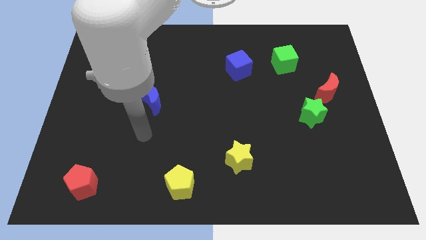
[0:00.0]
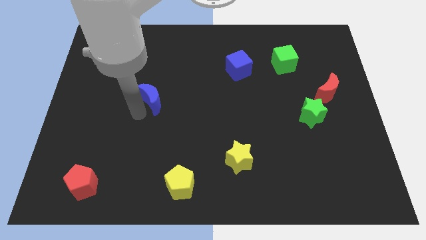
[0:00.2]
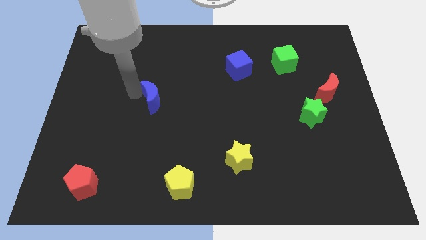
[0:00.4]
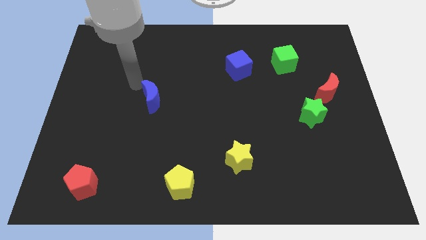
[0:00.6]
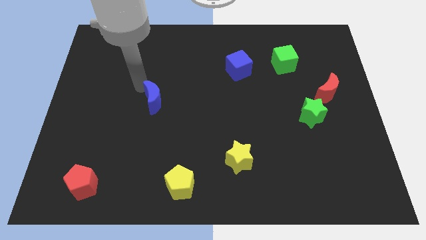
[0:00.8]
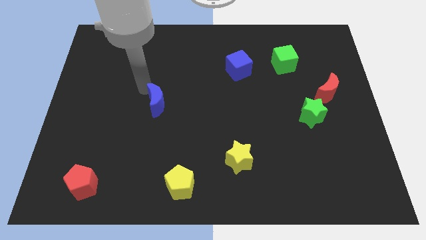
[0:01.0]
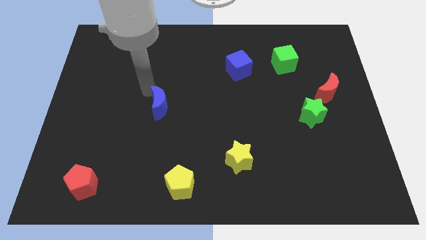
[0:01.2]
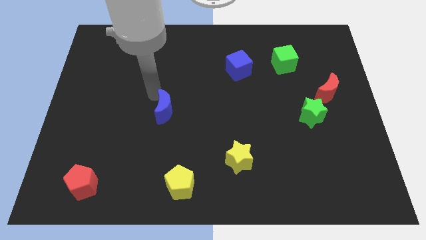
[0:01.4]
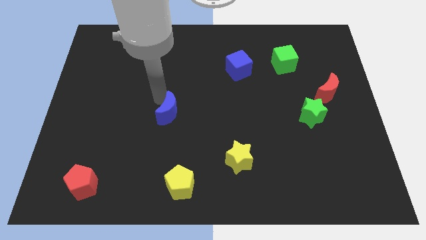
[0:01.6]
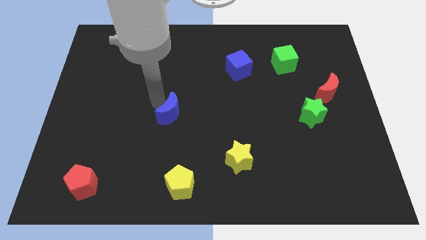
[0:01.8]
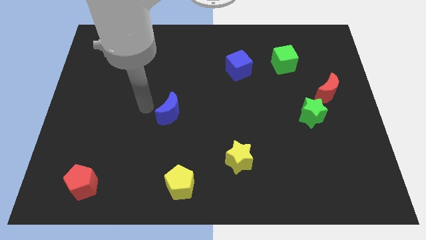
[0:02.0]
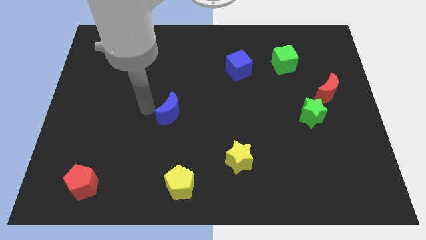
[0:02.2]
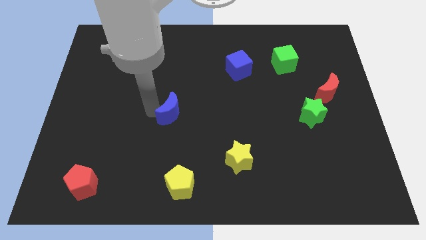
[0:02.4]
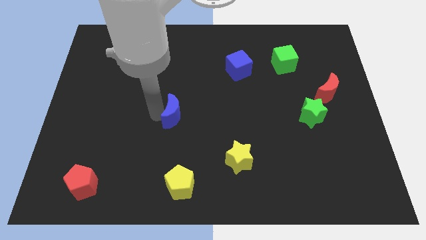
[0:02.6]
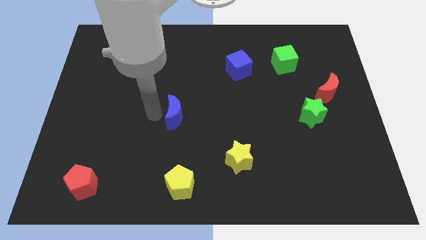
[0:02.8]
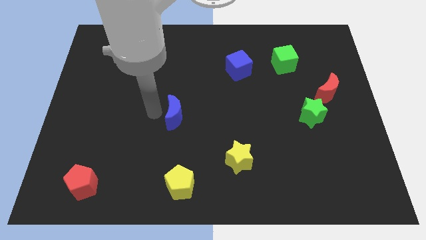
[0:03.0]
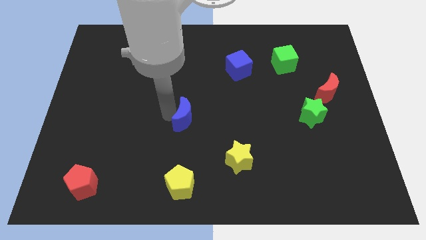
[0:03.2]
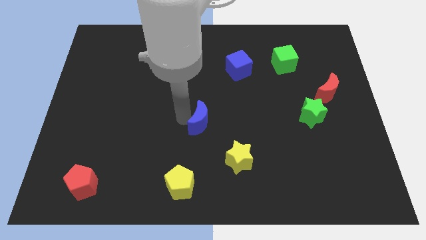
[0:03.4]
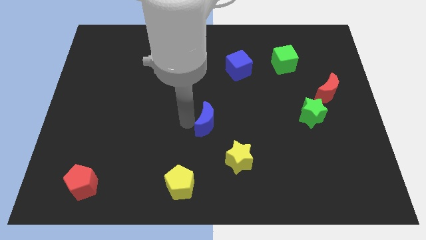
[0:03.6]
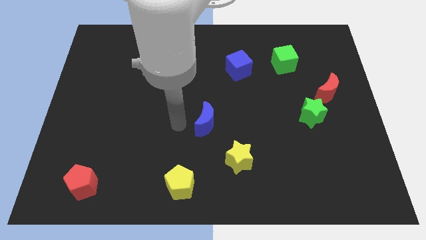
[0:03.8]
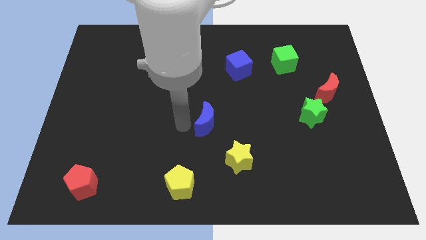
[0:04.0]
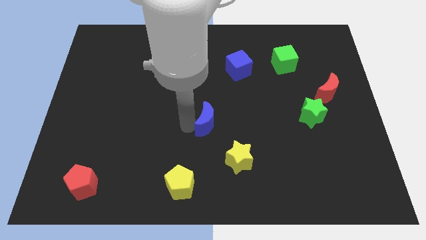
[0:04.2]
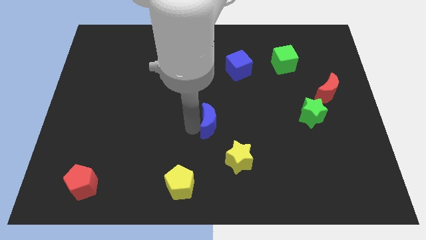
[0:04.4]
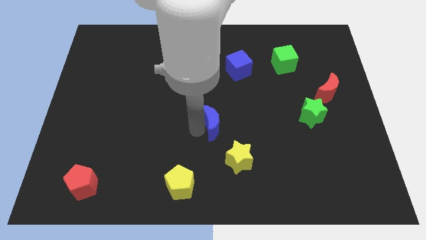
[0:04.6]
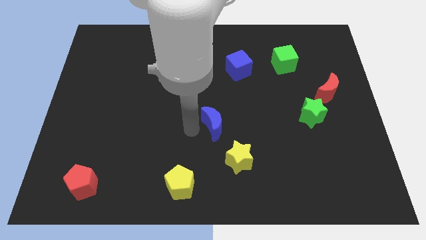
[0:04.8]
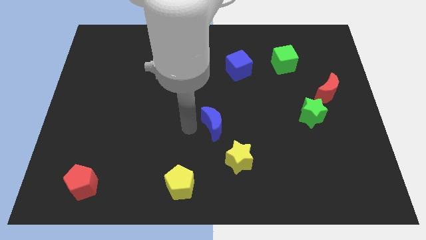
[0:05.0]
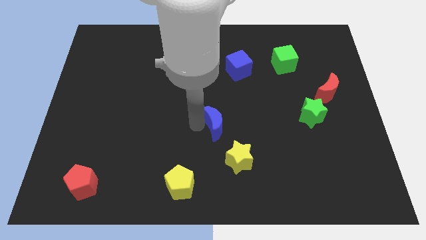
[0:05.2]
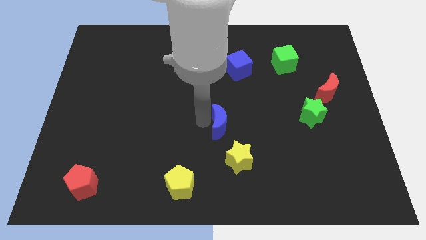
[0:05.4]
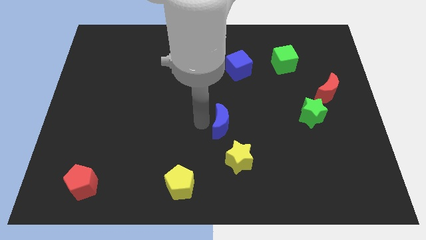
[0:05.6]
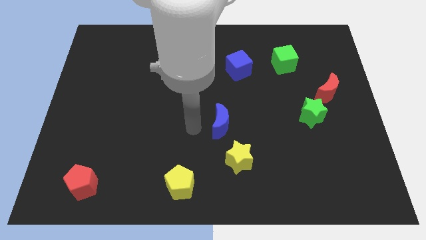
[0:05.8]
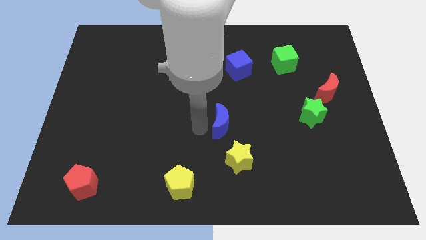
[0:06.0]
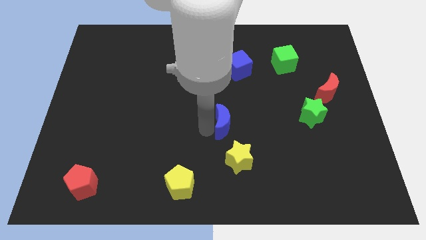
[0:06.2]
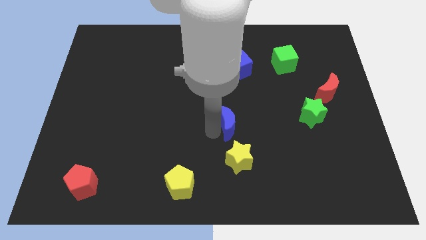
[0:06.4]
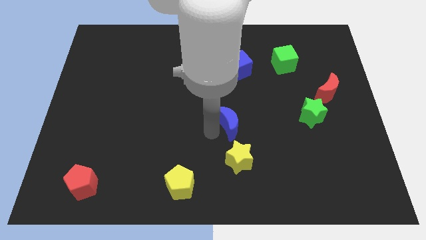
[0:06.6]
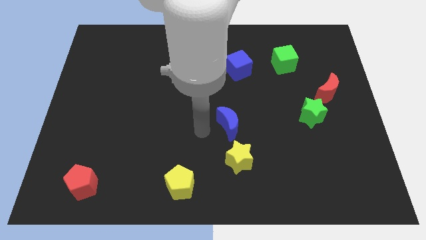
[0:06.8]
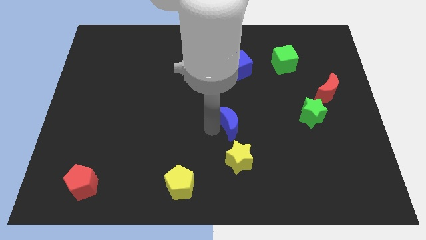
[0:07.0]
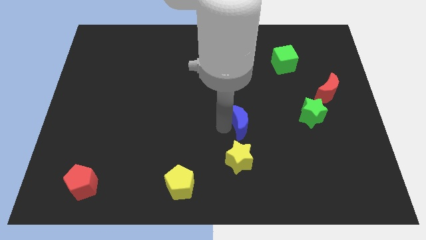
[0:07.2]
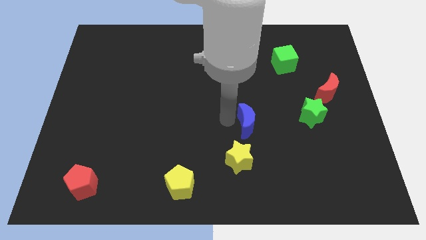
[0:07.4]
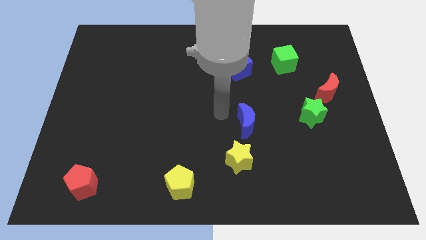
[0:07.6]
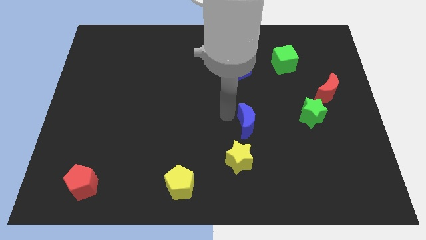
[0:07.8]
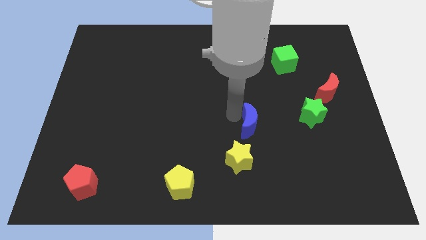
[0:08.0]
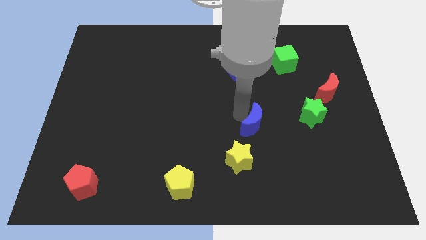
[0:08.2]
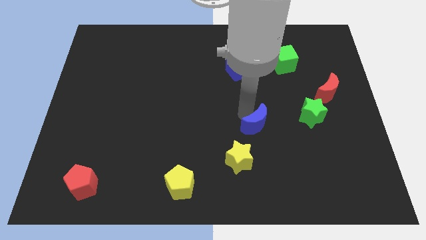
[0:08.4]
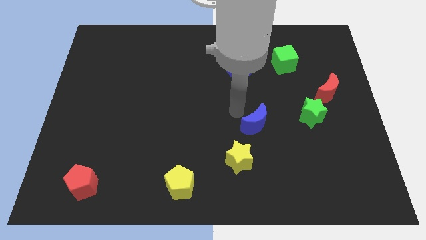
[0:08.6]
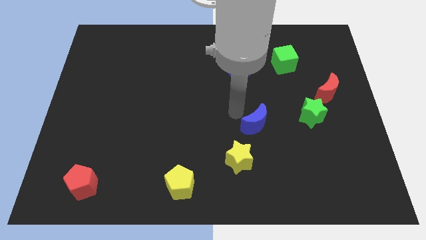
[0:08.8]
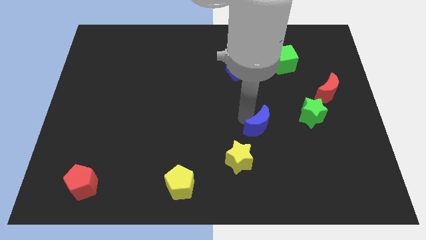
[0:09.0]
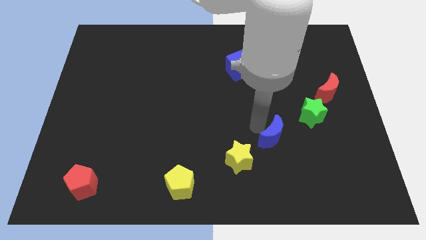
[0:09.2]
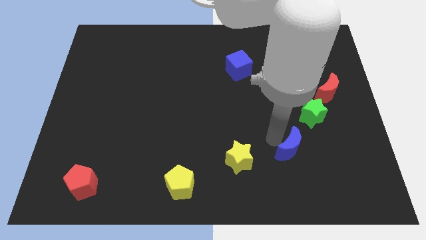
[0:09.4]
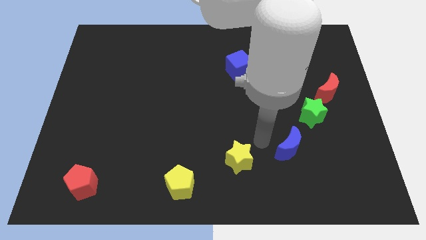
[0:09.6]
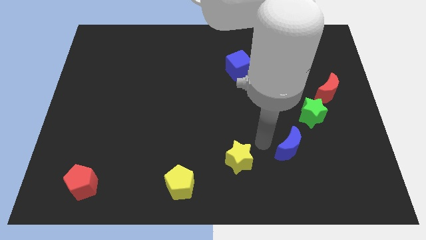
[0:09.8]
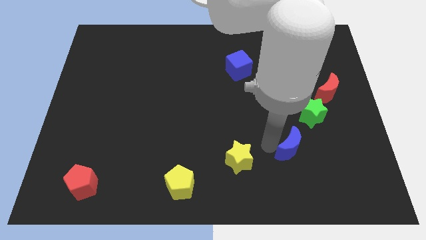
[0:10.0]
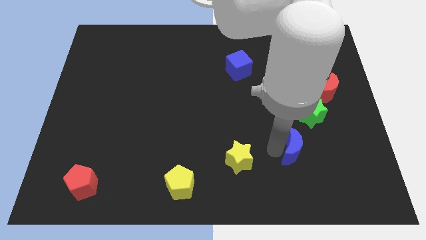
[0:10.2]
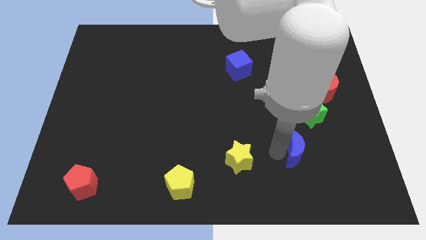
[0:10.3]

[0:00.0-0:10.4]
move the blue moon to the bottom of the green star

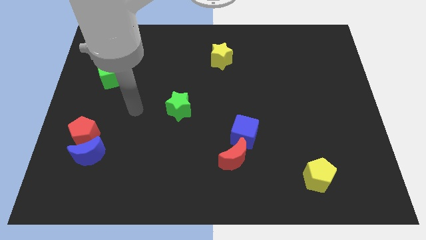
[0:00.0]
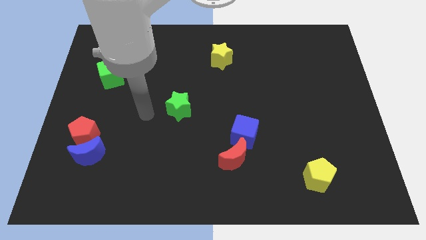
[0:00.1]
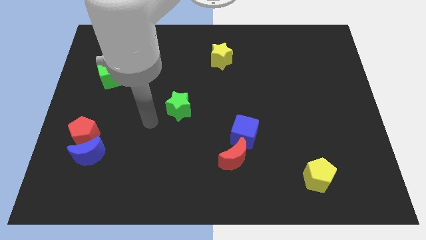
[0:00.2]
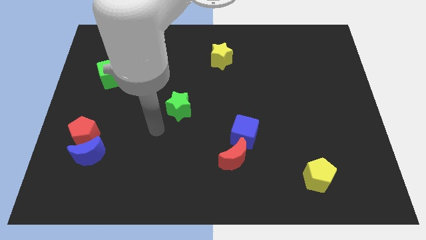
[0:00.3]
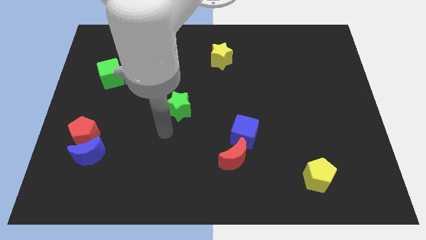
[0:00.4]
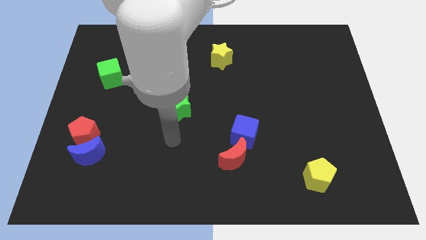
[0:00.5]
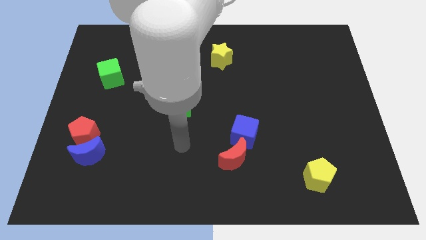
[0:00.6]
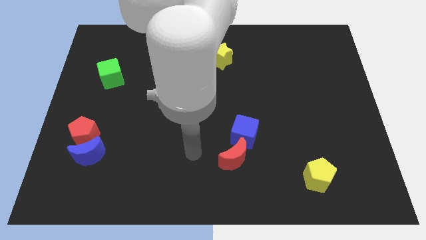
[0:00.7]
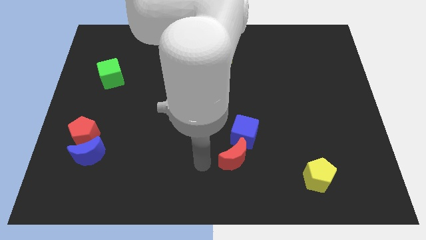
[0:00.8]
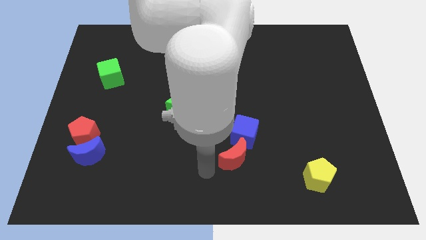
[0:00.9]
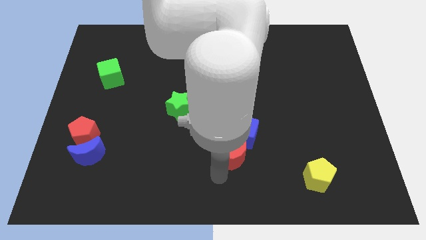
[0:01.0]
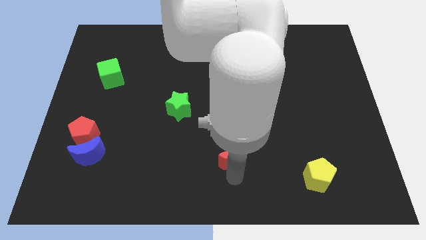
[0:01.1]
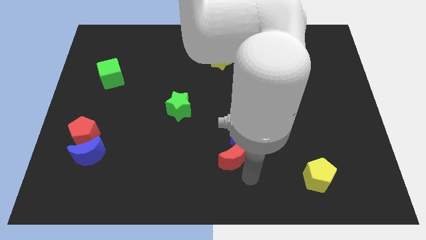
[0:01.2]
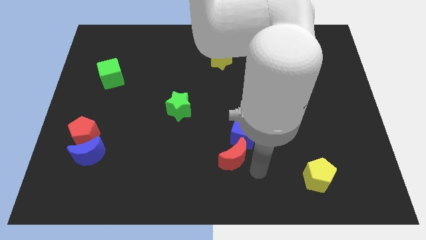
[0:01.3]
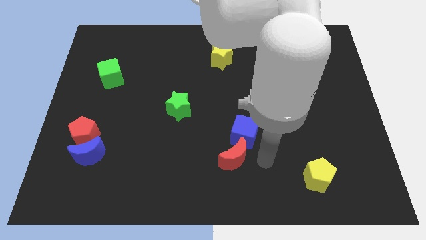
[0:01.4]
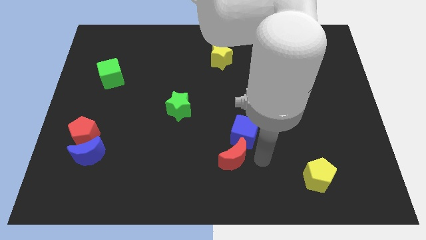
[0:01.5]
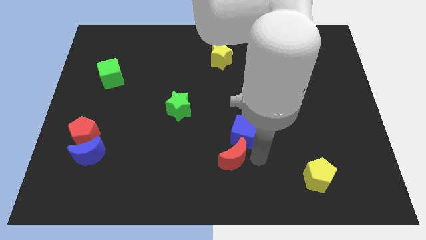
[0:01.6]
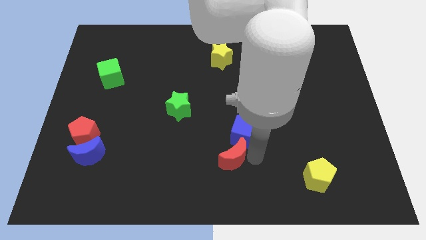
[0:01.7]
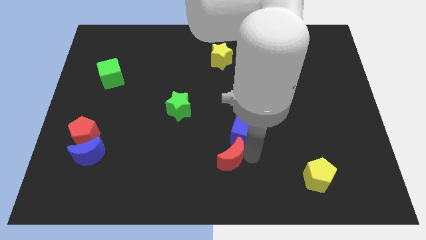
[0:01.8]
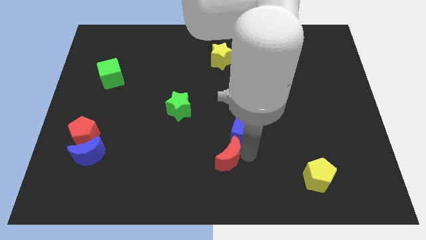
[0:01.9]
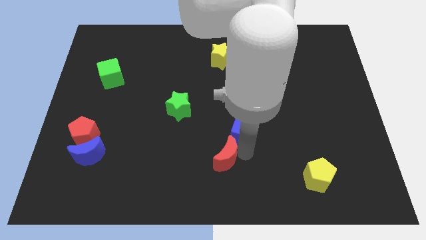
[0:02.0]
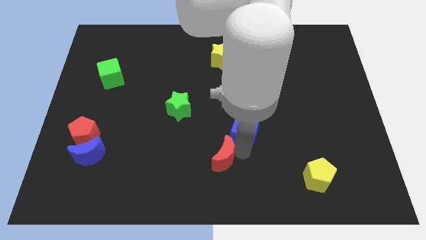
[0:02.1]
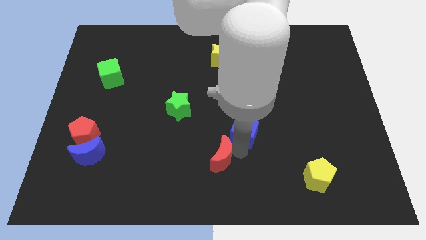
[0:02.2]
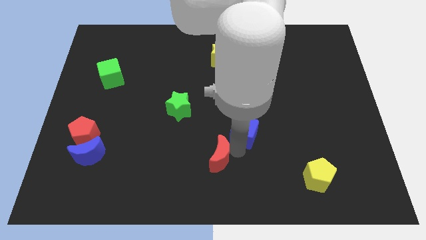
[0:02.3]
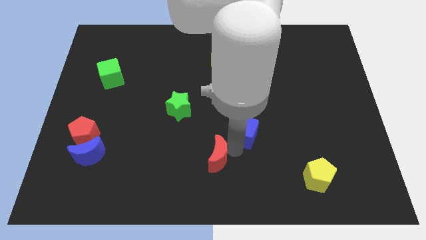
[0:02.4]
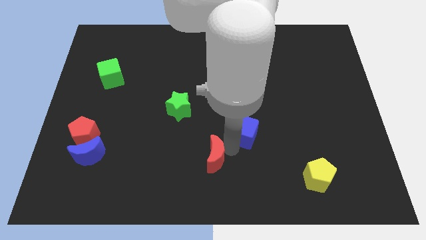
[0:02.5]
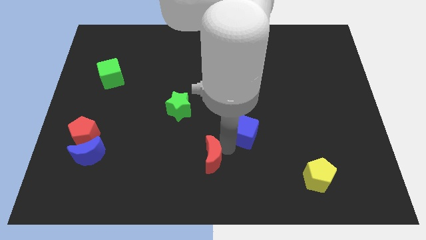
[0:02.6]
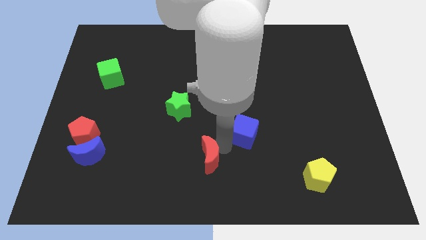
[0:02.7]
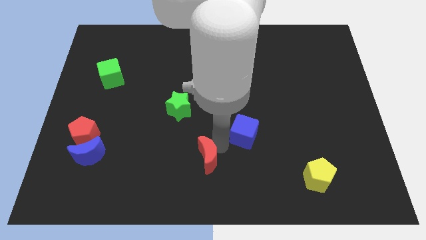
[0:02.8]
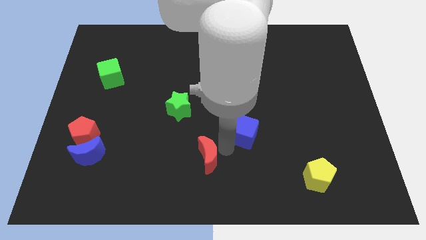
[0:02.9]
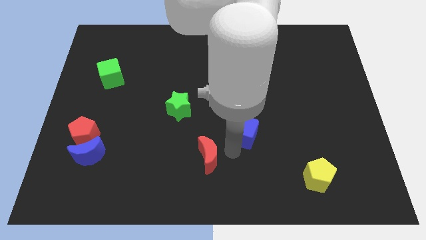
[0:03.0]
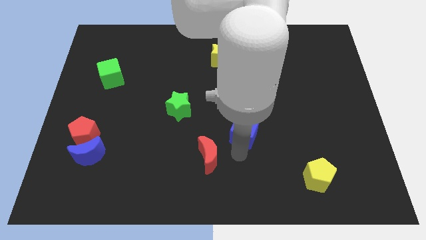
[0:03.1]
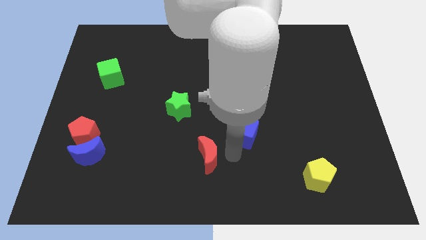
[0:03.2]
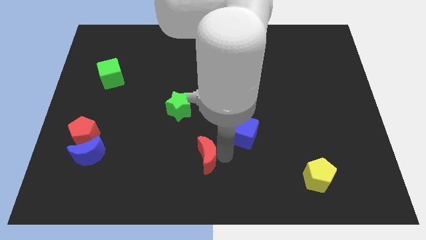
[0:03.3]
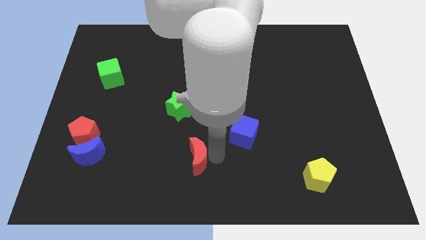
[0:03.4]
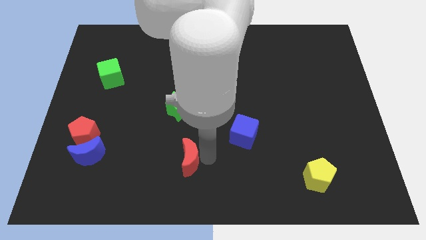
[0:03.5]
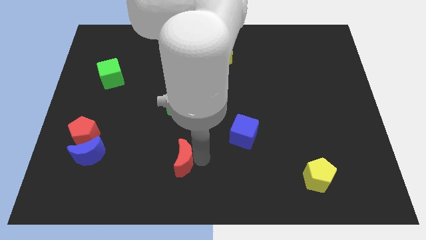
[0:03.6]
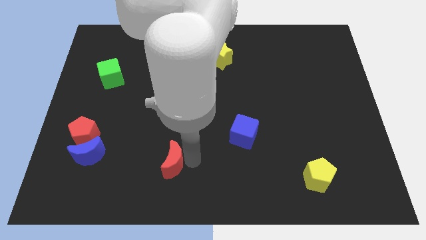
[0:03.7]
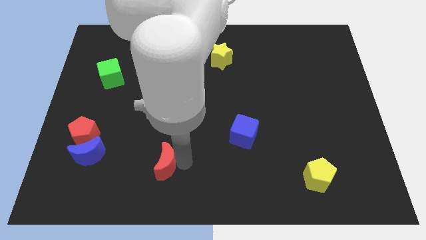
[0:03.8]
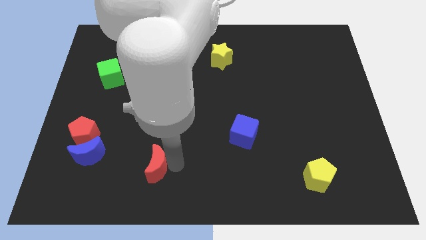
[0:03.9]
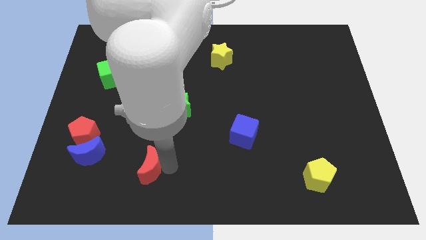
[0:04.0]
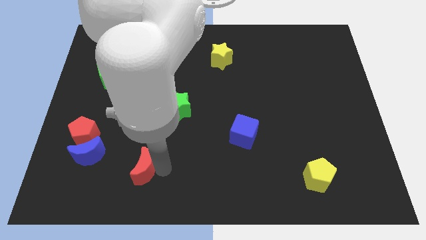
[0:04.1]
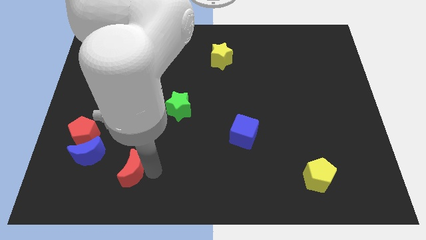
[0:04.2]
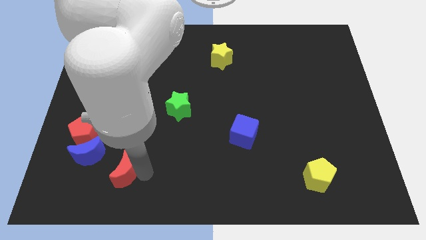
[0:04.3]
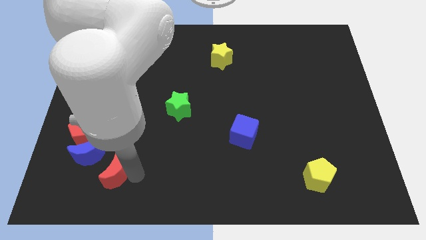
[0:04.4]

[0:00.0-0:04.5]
put the red moon to the bottom right of the red pentagon
